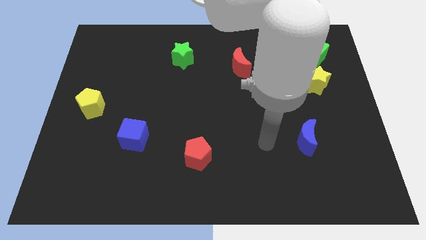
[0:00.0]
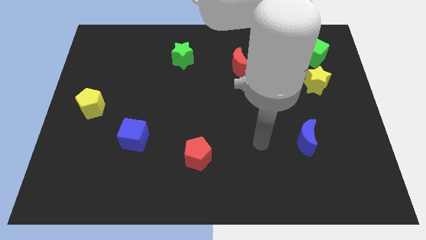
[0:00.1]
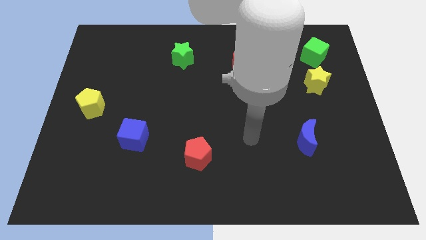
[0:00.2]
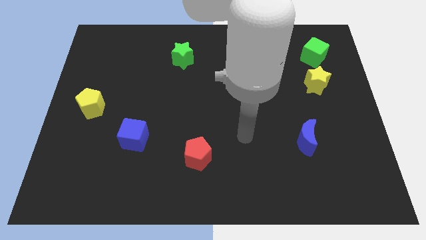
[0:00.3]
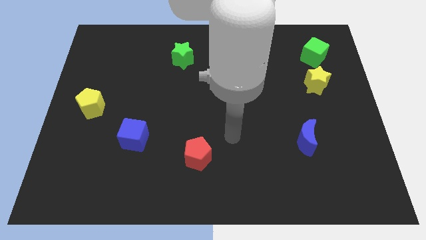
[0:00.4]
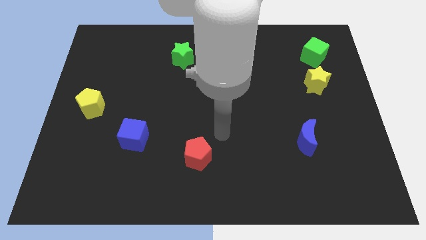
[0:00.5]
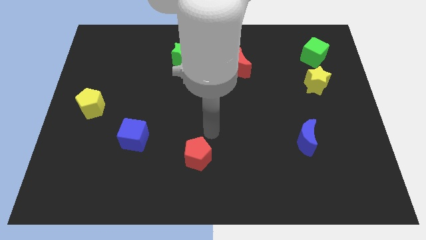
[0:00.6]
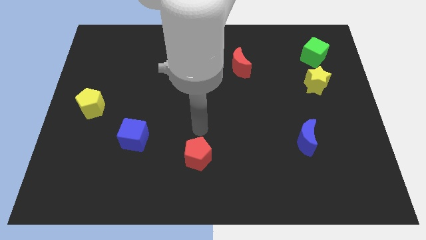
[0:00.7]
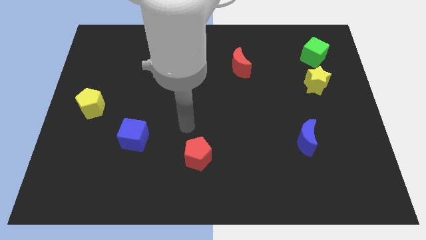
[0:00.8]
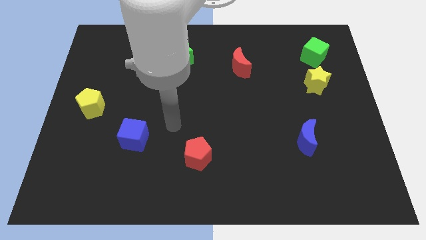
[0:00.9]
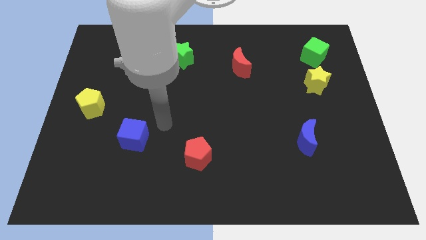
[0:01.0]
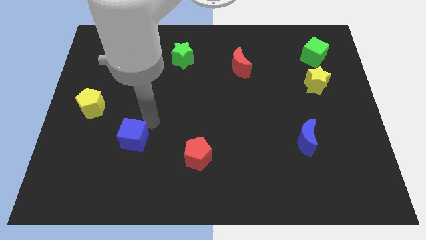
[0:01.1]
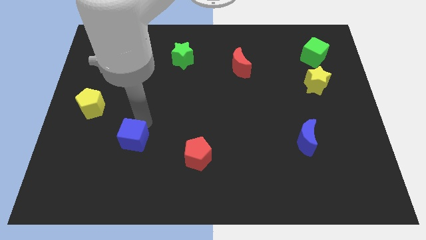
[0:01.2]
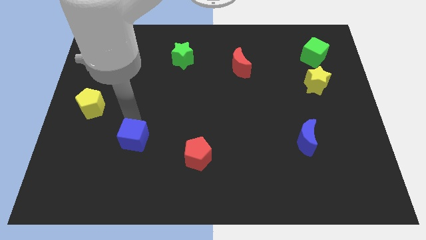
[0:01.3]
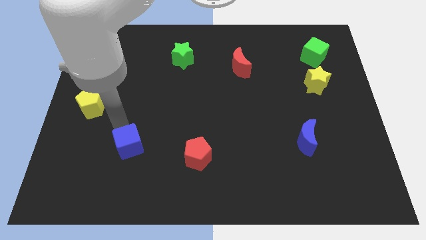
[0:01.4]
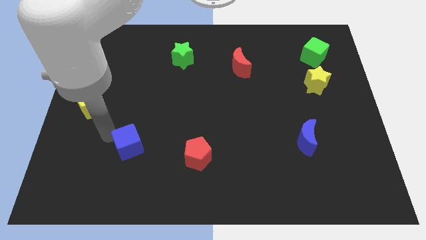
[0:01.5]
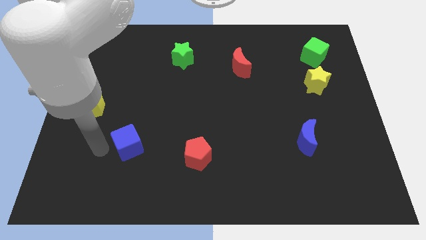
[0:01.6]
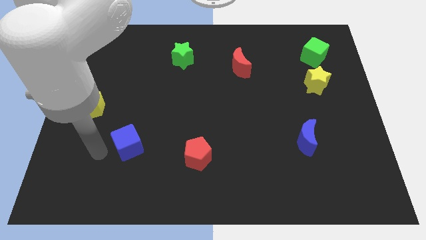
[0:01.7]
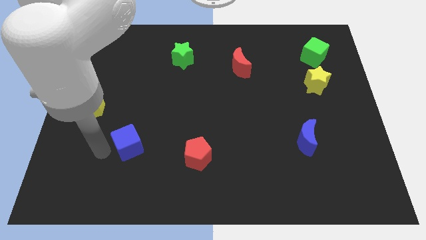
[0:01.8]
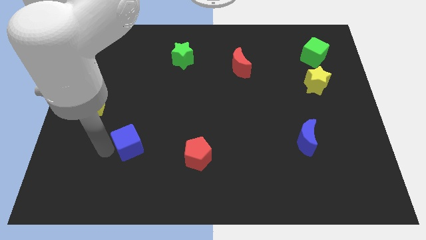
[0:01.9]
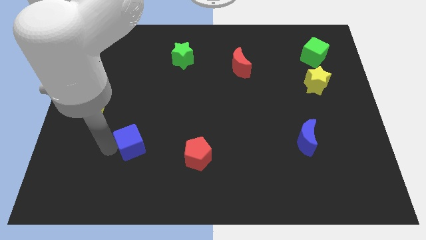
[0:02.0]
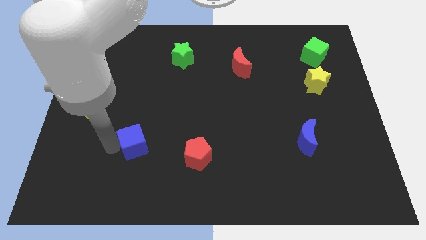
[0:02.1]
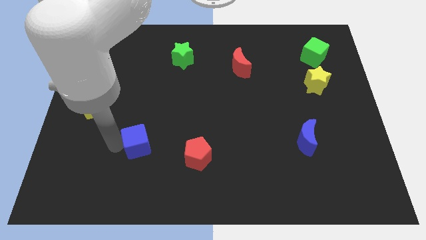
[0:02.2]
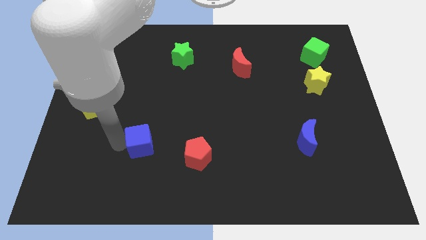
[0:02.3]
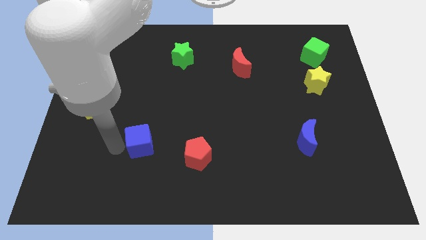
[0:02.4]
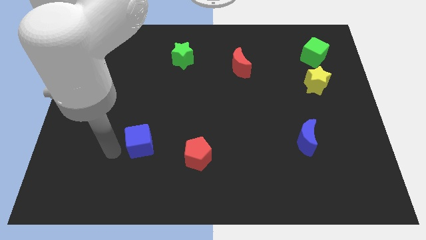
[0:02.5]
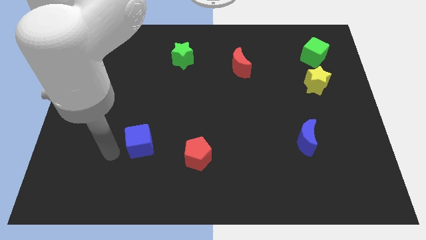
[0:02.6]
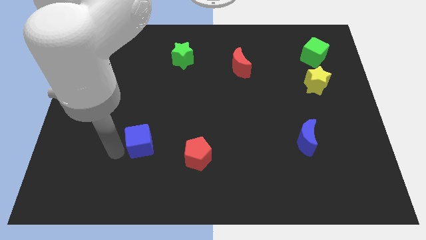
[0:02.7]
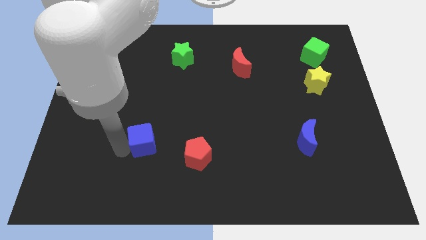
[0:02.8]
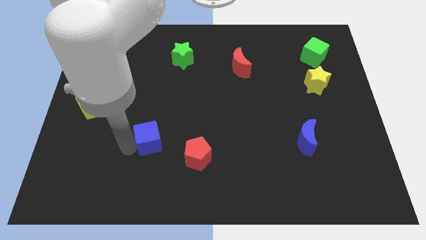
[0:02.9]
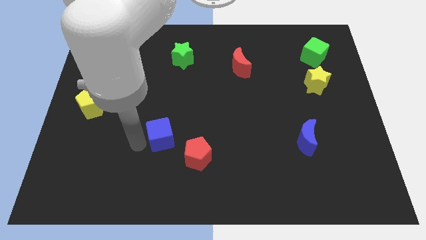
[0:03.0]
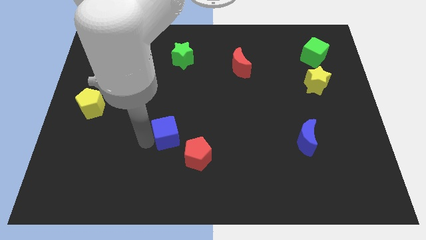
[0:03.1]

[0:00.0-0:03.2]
slide the blue cube right a bit

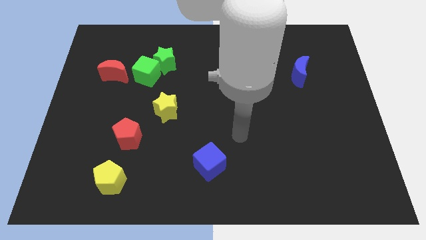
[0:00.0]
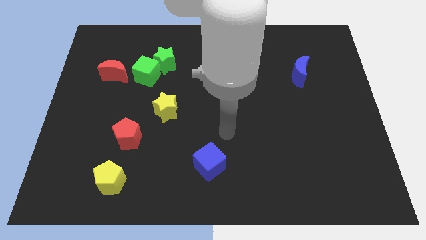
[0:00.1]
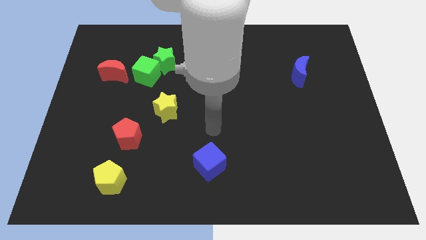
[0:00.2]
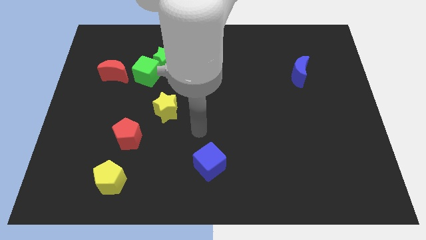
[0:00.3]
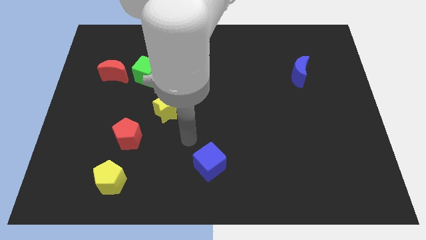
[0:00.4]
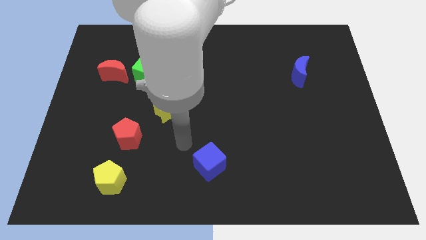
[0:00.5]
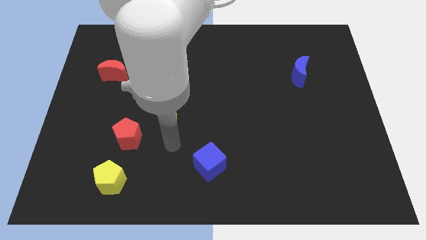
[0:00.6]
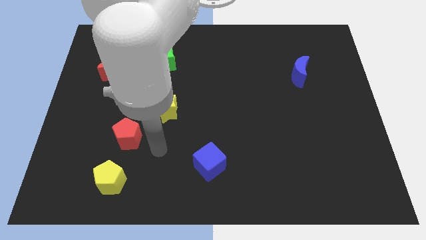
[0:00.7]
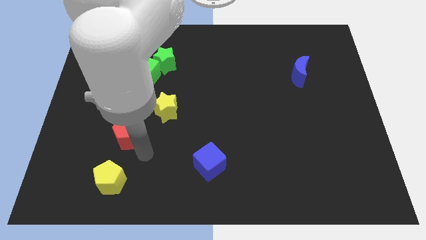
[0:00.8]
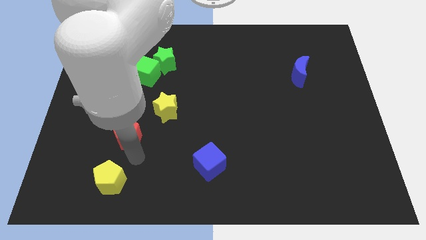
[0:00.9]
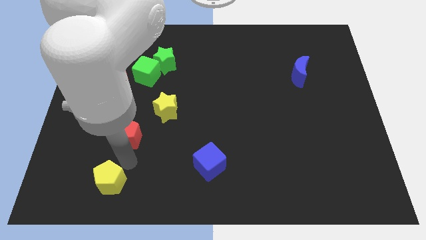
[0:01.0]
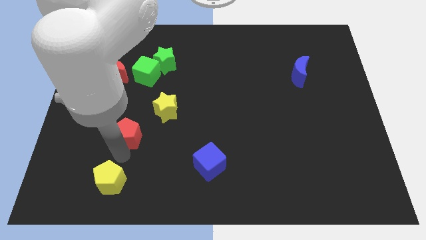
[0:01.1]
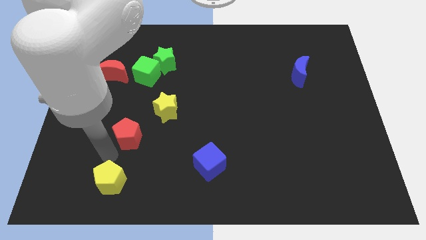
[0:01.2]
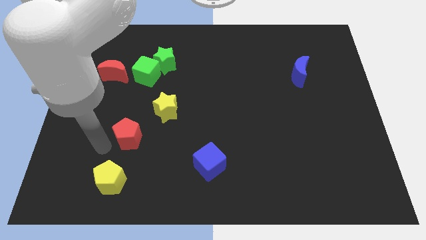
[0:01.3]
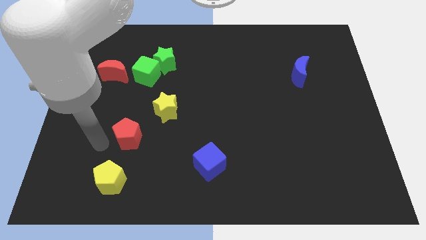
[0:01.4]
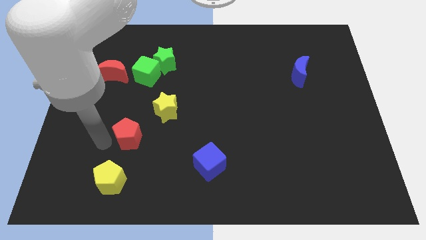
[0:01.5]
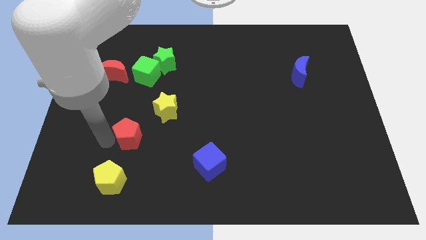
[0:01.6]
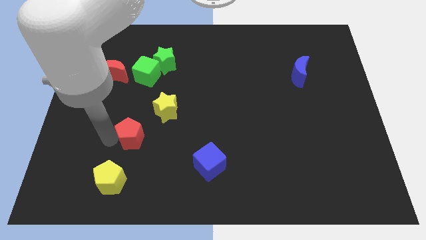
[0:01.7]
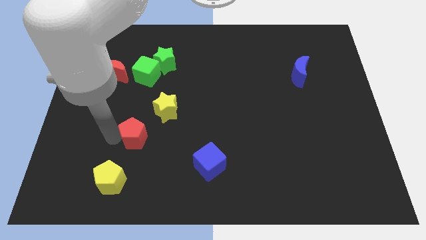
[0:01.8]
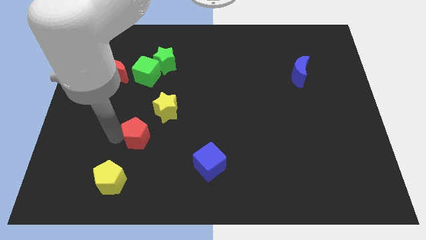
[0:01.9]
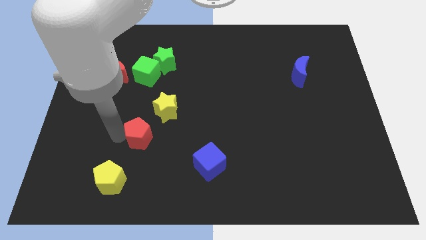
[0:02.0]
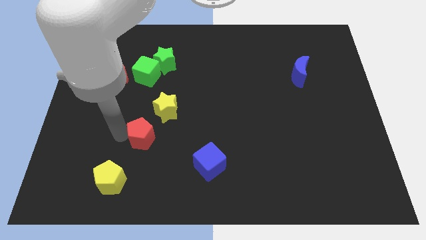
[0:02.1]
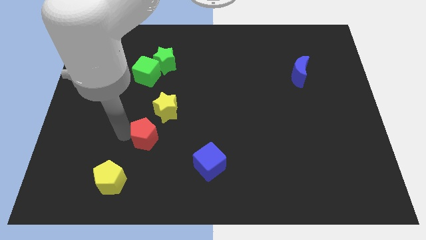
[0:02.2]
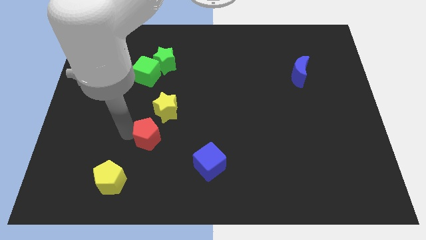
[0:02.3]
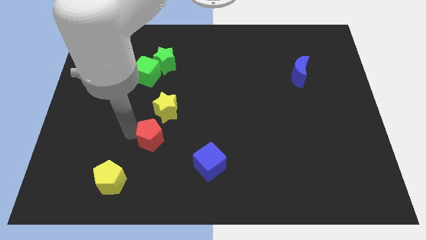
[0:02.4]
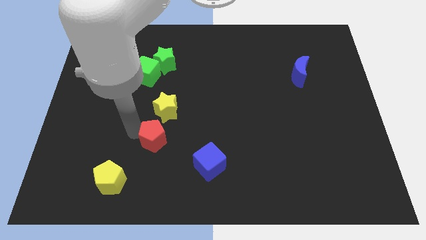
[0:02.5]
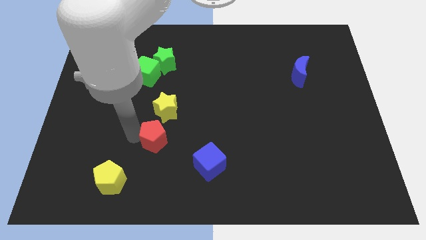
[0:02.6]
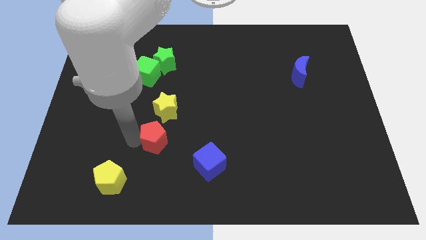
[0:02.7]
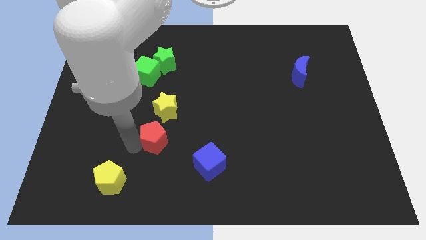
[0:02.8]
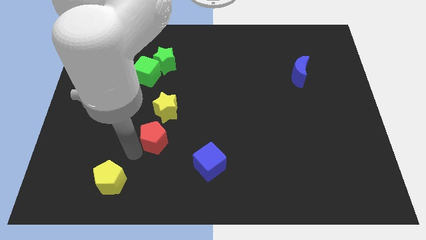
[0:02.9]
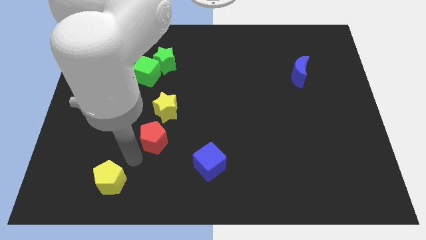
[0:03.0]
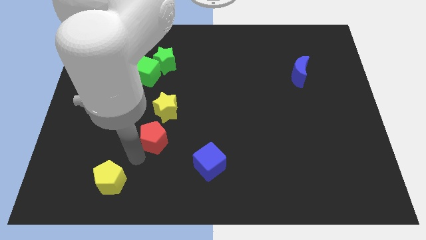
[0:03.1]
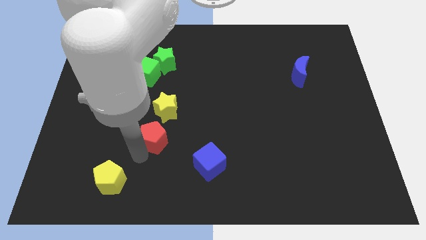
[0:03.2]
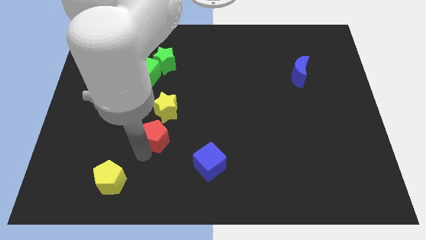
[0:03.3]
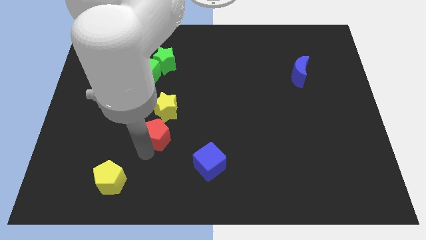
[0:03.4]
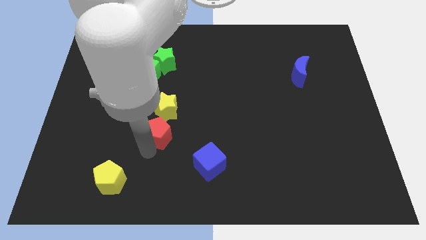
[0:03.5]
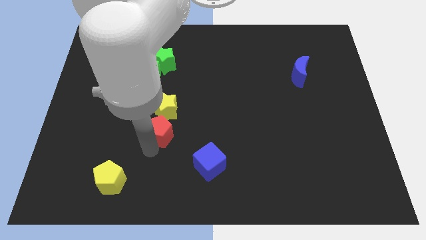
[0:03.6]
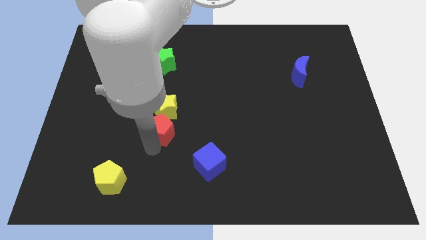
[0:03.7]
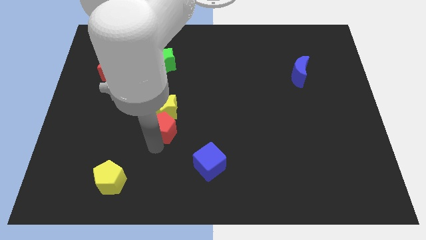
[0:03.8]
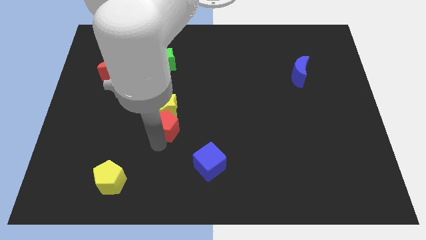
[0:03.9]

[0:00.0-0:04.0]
slightly slide the red pentagon up and then to the right

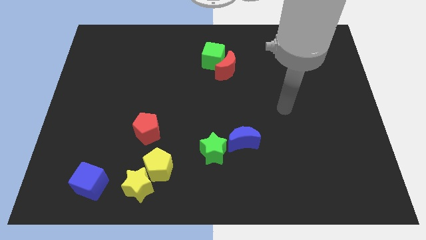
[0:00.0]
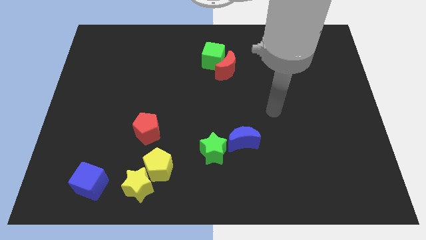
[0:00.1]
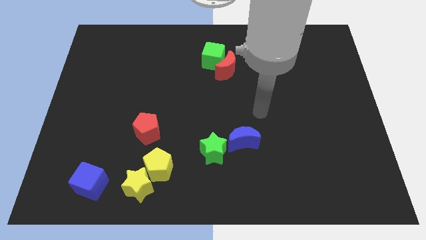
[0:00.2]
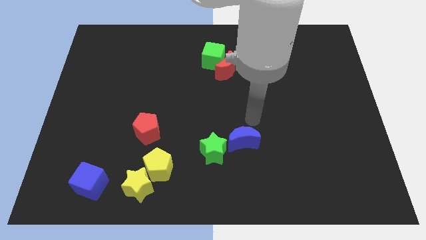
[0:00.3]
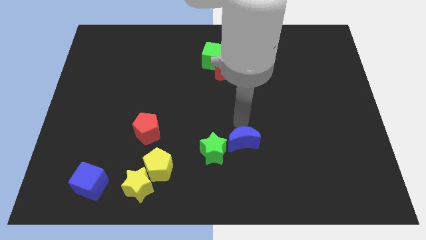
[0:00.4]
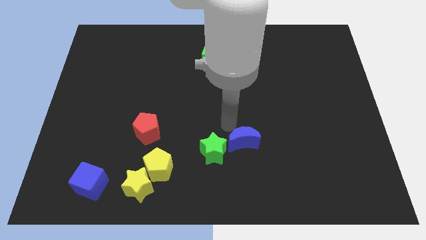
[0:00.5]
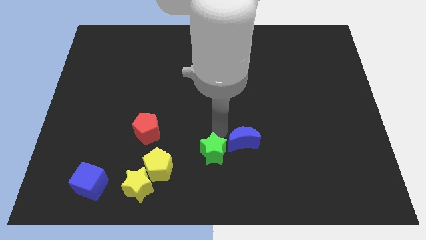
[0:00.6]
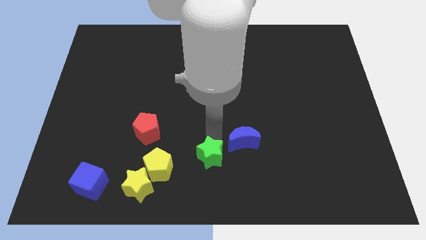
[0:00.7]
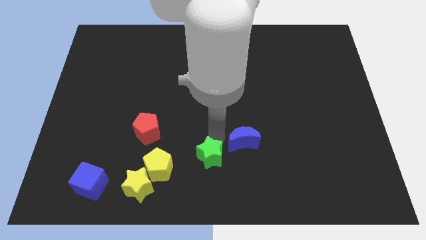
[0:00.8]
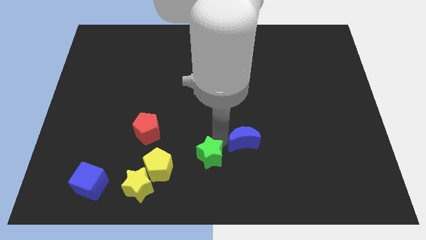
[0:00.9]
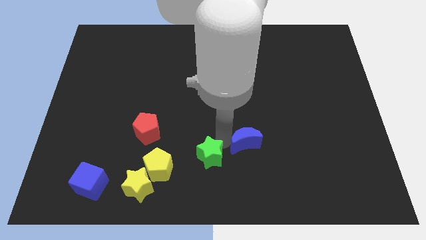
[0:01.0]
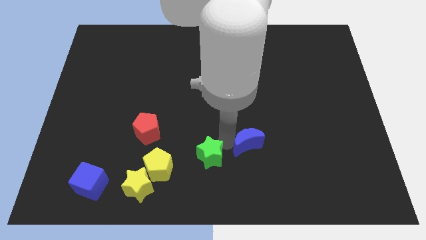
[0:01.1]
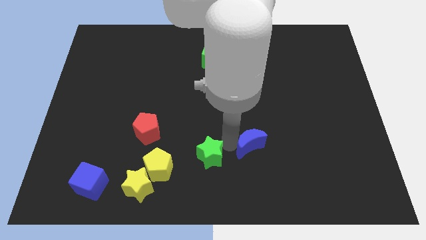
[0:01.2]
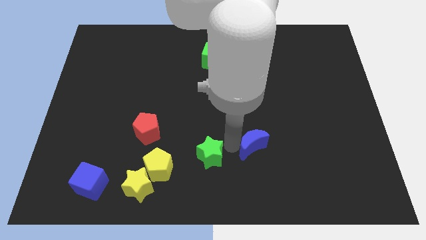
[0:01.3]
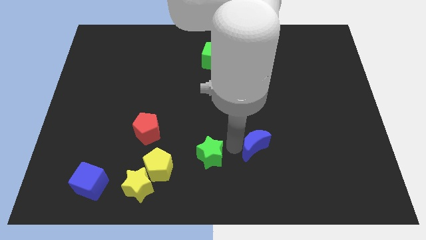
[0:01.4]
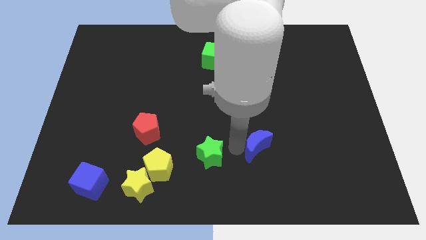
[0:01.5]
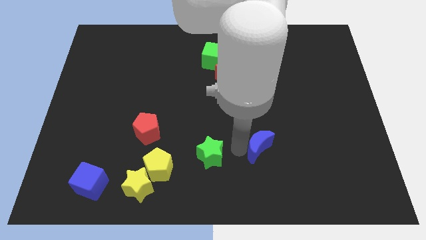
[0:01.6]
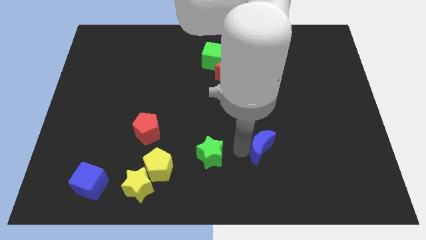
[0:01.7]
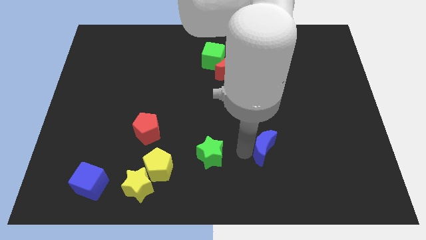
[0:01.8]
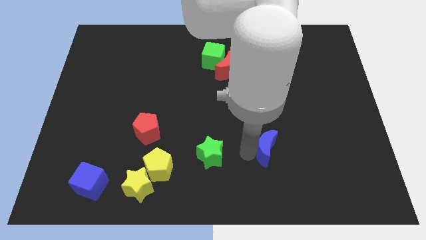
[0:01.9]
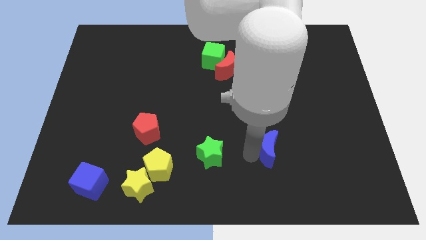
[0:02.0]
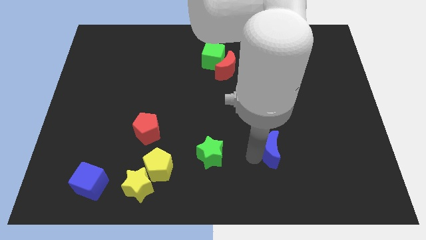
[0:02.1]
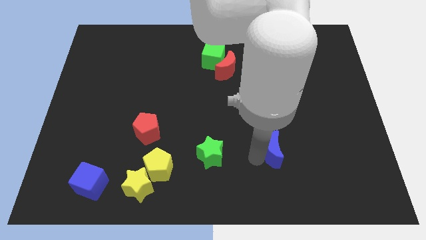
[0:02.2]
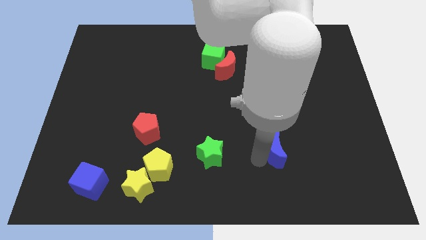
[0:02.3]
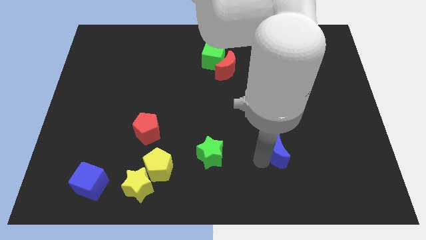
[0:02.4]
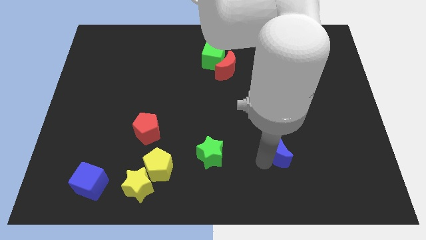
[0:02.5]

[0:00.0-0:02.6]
slightly move the blue moon to the right
